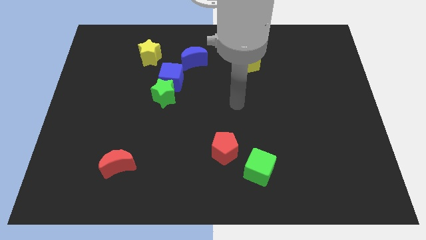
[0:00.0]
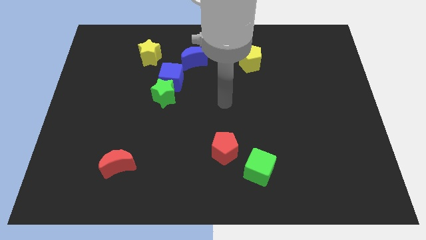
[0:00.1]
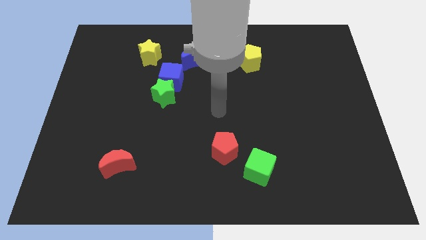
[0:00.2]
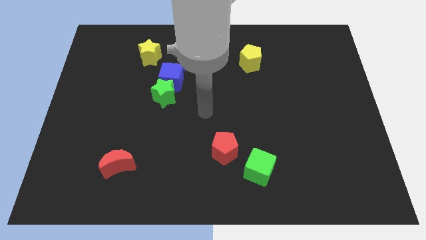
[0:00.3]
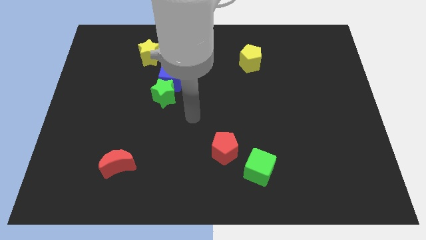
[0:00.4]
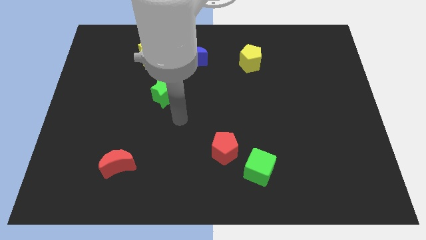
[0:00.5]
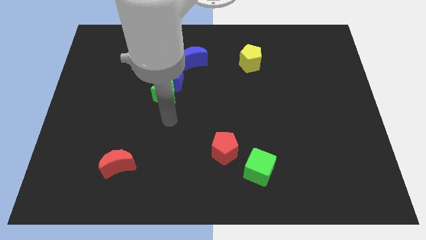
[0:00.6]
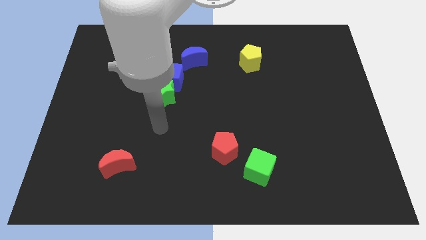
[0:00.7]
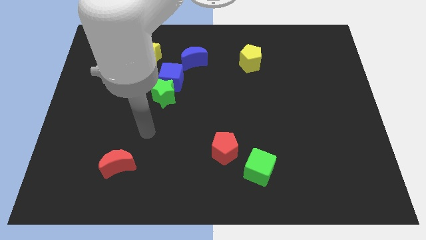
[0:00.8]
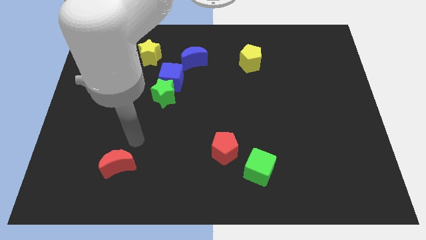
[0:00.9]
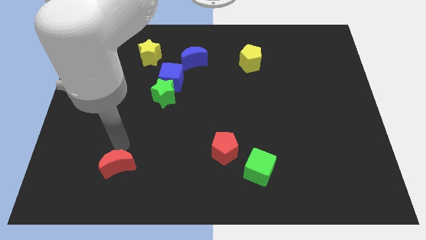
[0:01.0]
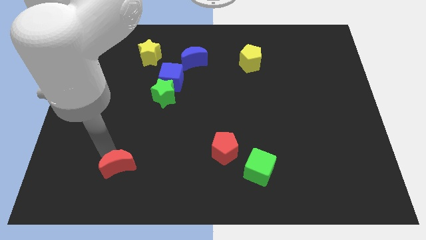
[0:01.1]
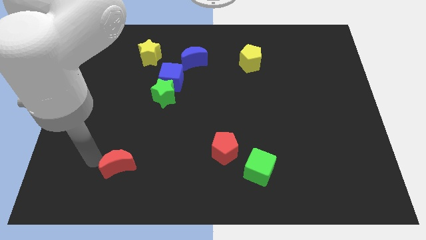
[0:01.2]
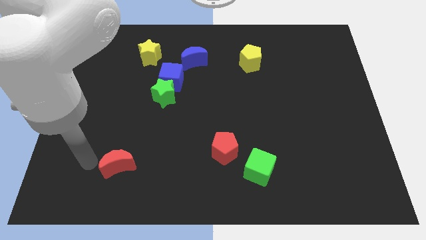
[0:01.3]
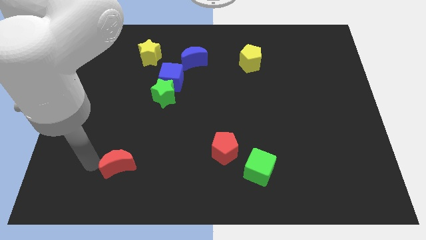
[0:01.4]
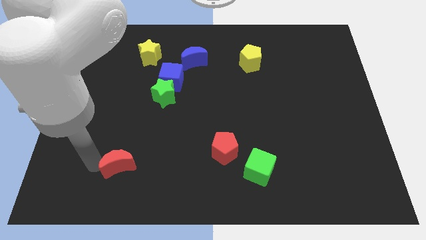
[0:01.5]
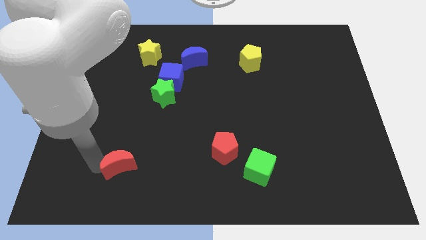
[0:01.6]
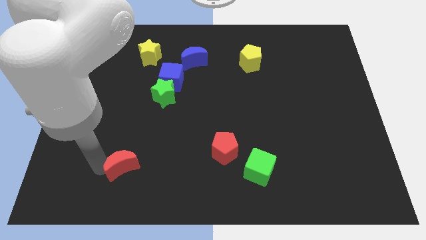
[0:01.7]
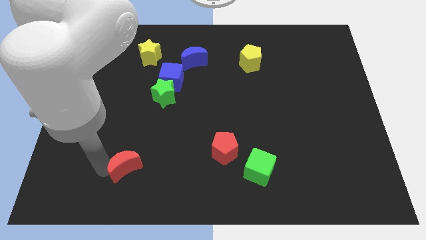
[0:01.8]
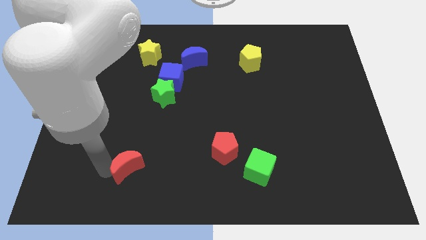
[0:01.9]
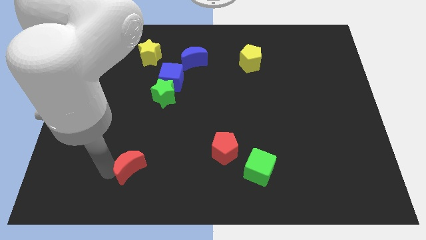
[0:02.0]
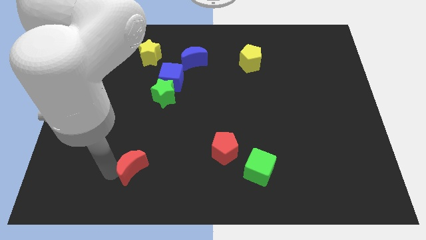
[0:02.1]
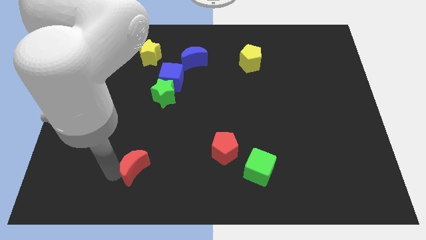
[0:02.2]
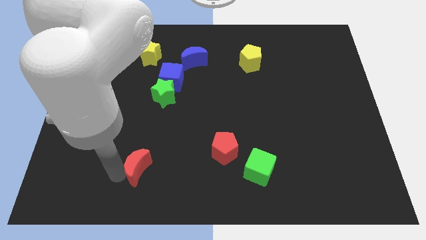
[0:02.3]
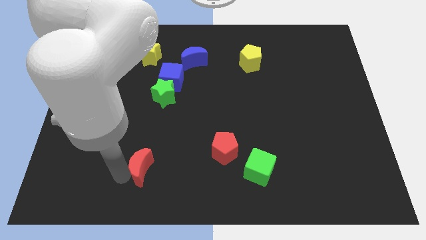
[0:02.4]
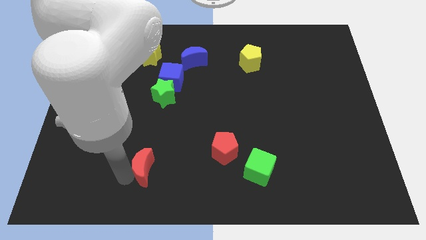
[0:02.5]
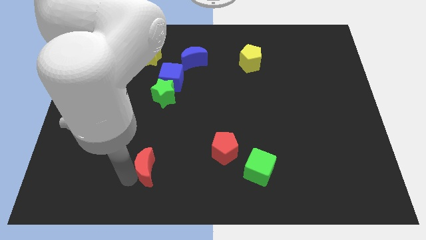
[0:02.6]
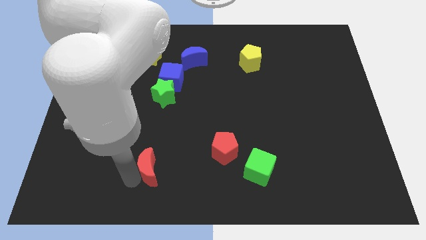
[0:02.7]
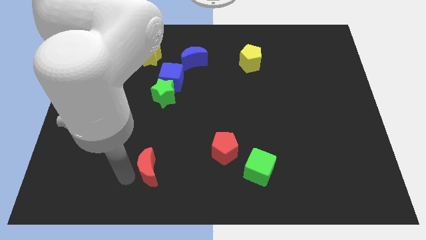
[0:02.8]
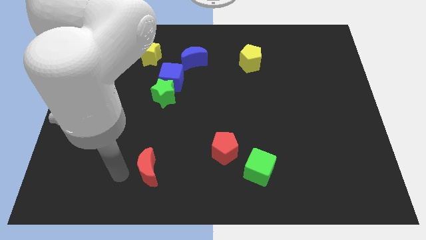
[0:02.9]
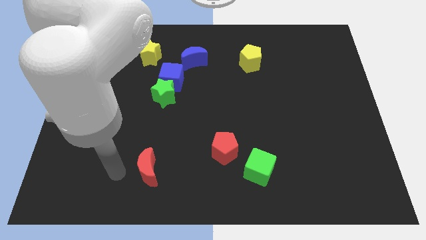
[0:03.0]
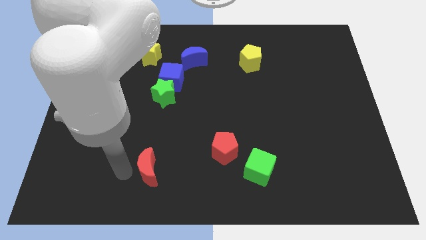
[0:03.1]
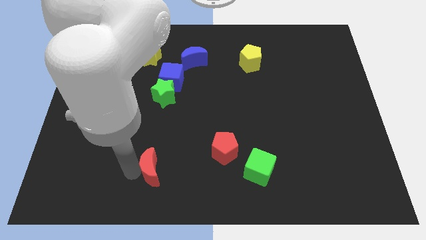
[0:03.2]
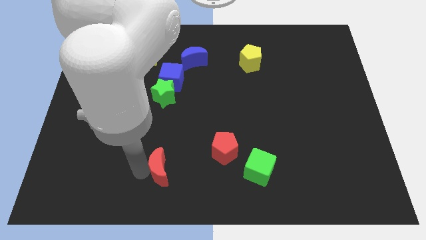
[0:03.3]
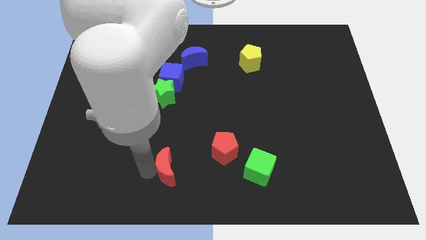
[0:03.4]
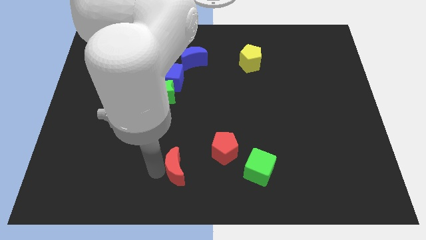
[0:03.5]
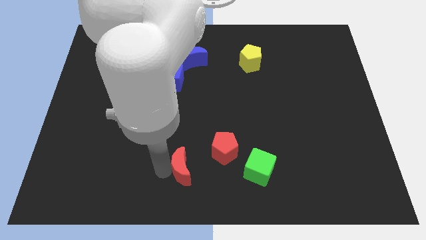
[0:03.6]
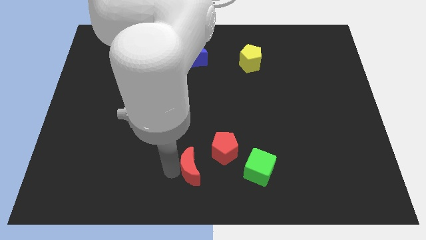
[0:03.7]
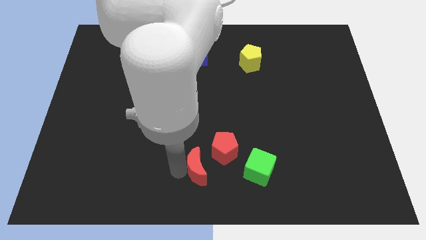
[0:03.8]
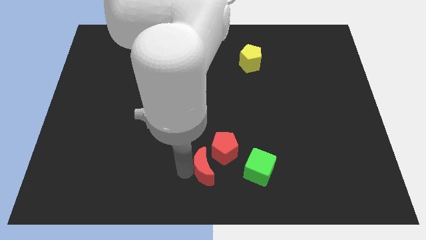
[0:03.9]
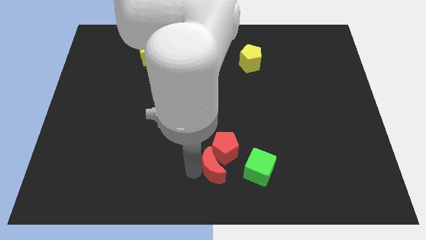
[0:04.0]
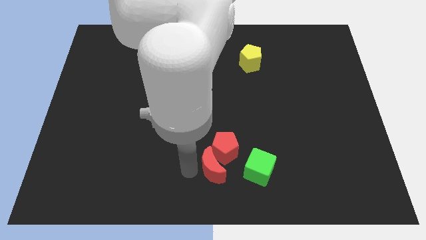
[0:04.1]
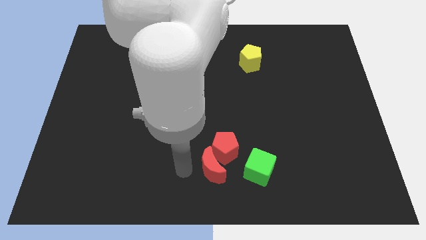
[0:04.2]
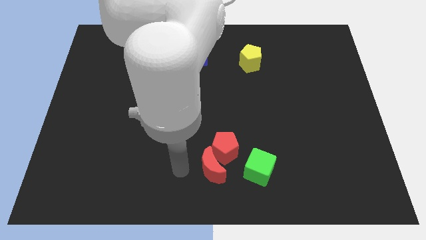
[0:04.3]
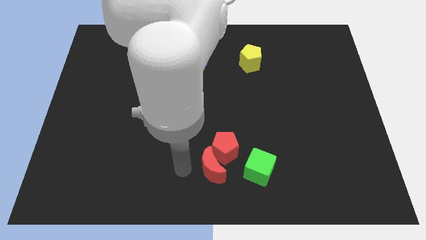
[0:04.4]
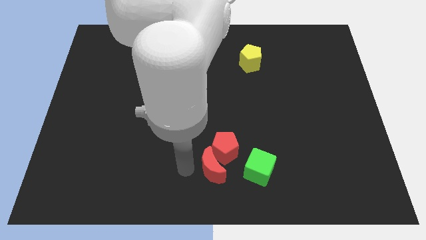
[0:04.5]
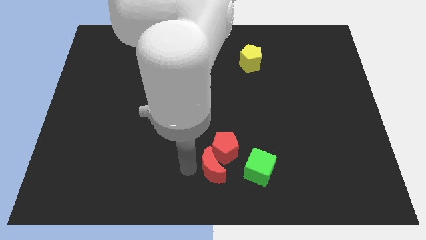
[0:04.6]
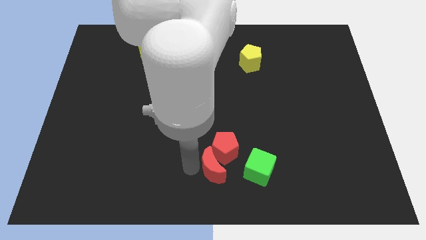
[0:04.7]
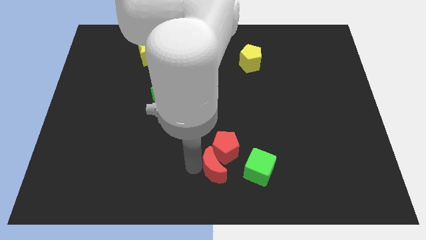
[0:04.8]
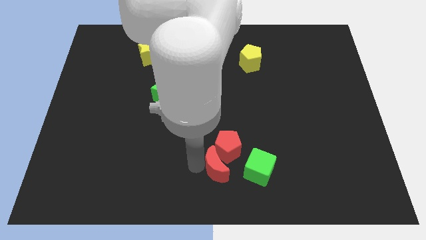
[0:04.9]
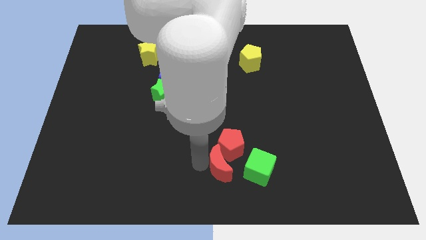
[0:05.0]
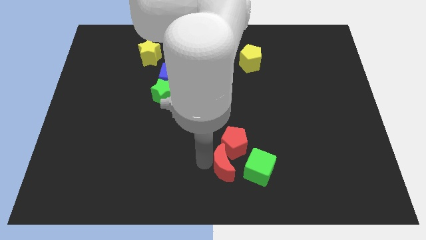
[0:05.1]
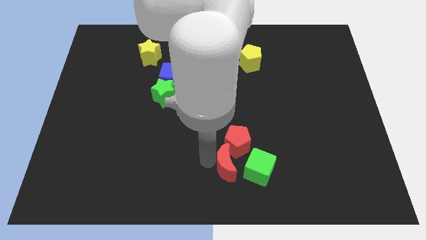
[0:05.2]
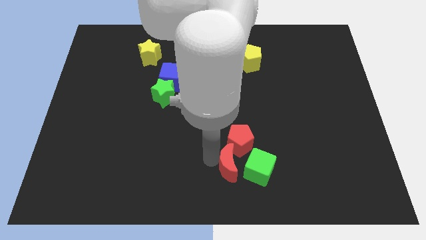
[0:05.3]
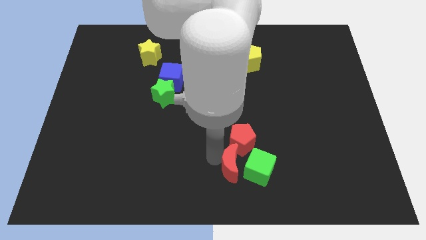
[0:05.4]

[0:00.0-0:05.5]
move the red moon close to the green cube

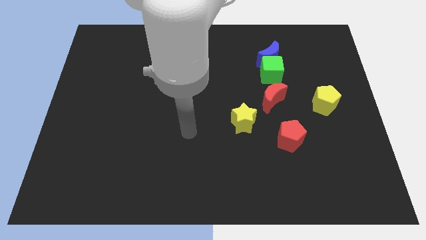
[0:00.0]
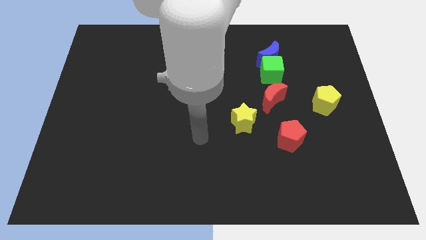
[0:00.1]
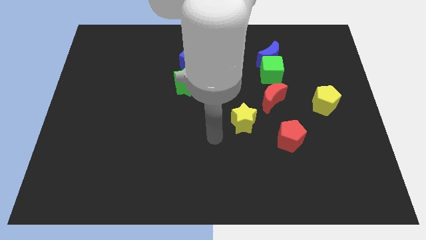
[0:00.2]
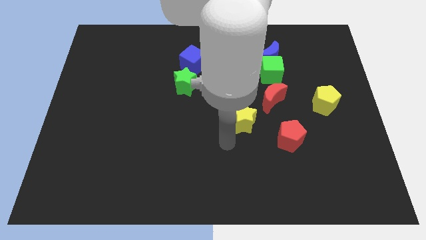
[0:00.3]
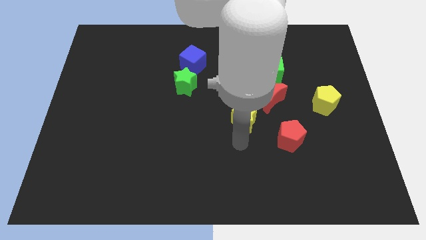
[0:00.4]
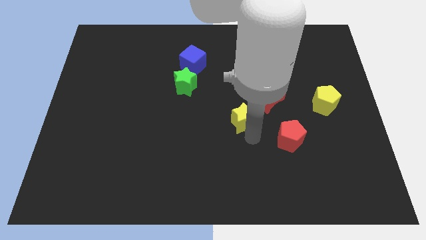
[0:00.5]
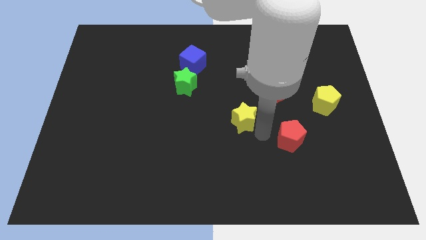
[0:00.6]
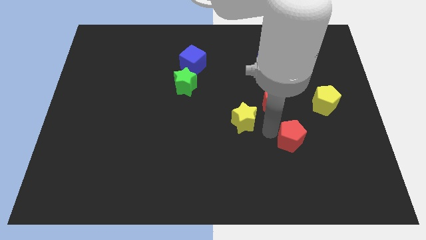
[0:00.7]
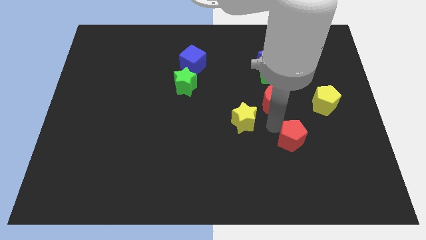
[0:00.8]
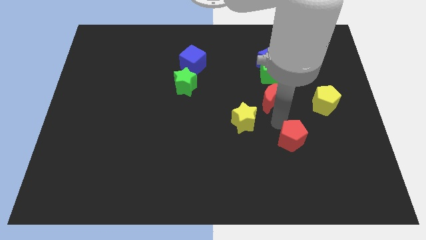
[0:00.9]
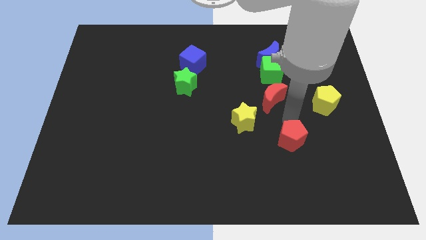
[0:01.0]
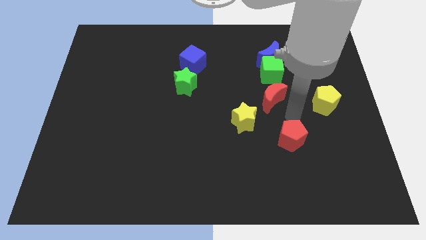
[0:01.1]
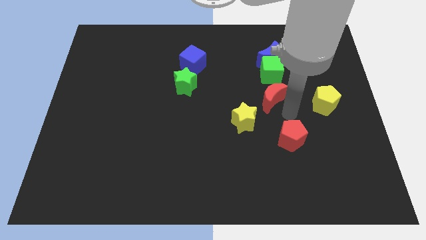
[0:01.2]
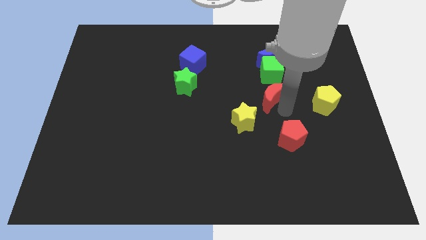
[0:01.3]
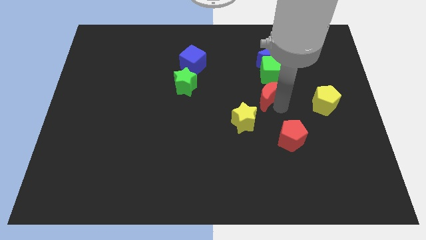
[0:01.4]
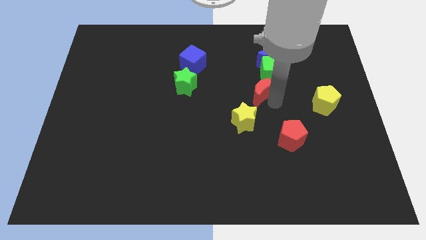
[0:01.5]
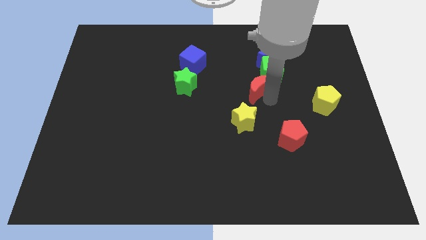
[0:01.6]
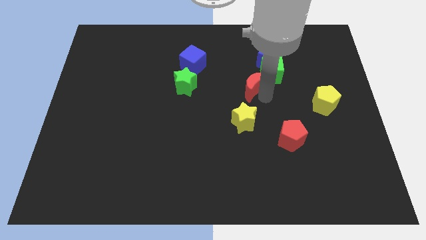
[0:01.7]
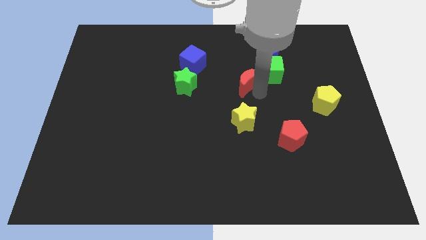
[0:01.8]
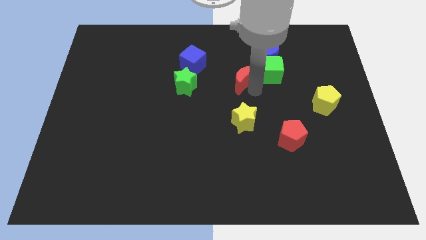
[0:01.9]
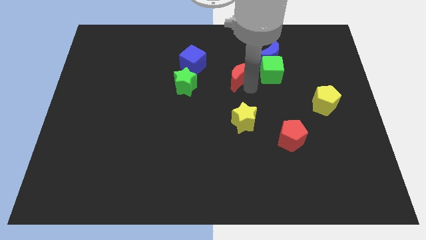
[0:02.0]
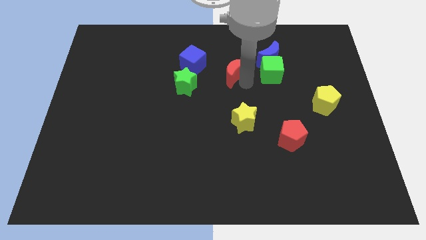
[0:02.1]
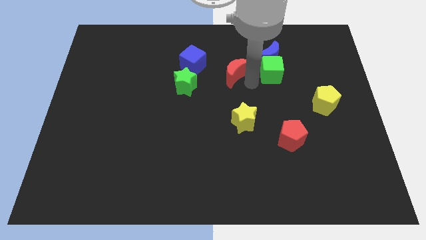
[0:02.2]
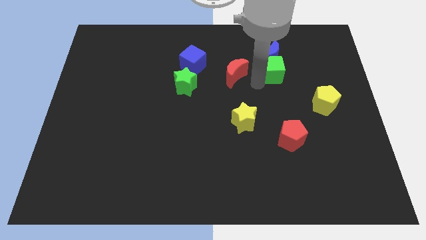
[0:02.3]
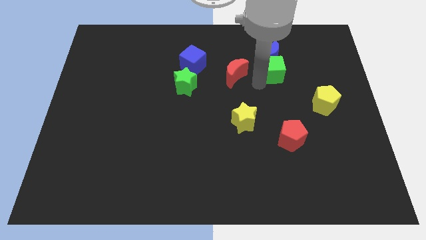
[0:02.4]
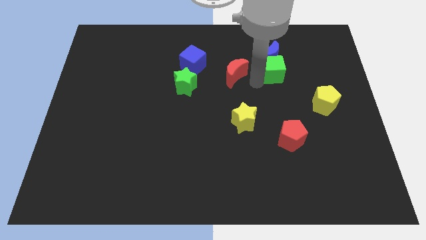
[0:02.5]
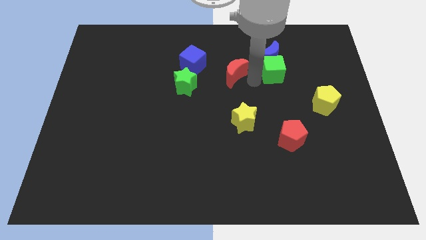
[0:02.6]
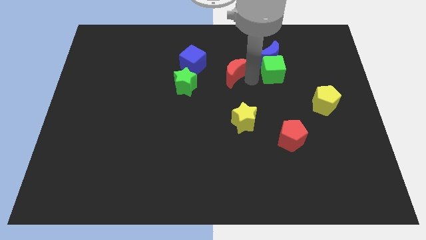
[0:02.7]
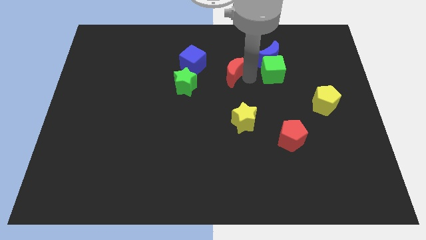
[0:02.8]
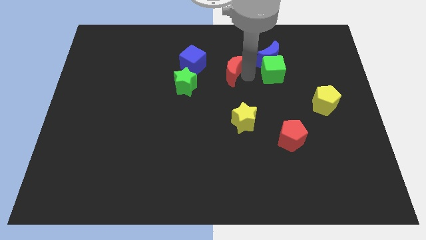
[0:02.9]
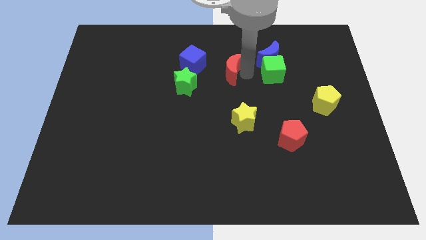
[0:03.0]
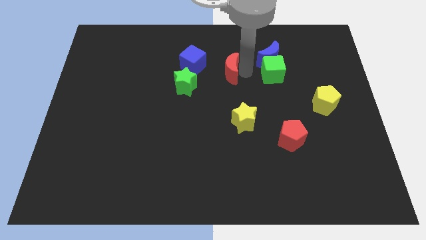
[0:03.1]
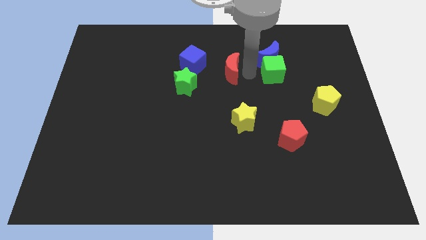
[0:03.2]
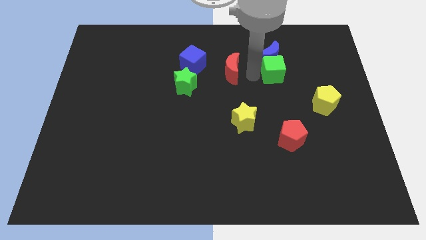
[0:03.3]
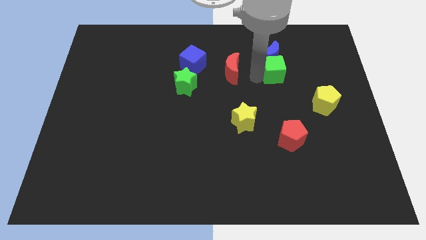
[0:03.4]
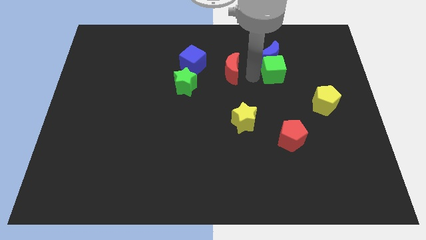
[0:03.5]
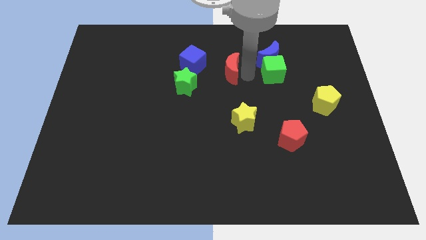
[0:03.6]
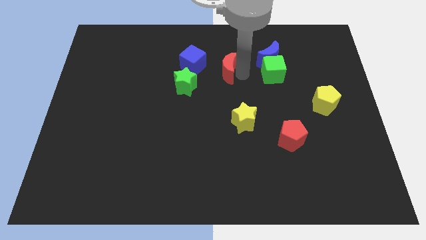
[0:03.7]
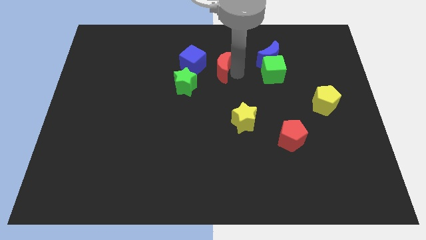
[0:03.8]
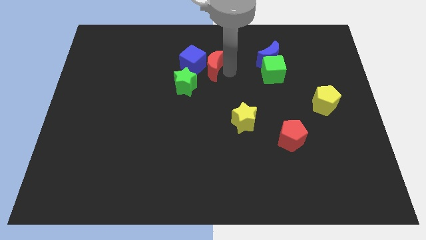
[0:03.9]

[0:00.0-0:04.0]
push the red moon next to the blue cube
